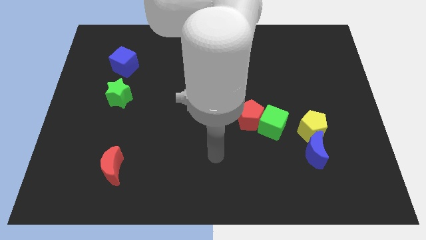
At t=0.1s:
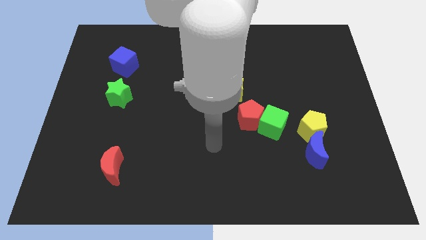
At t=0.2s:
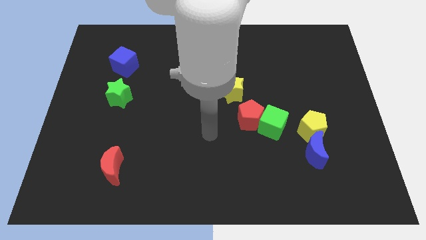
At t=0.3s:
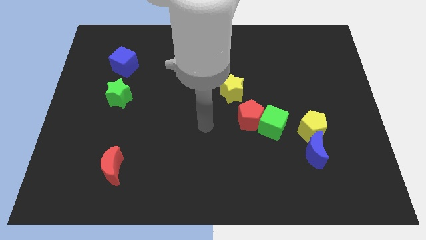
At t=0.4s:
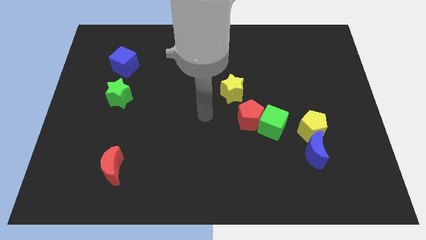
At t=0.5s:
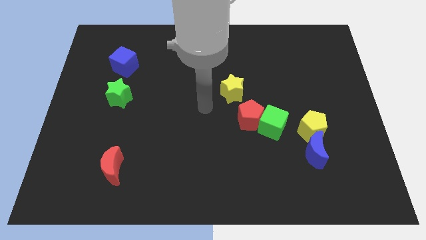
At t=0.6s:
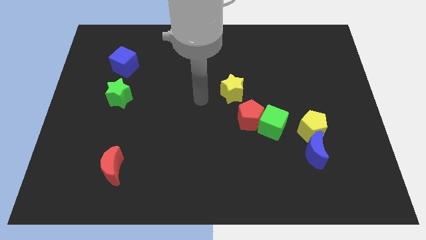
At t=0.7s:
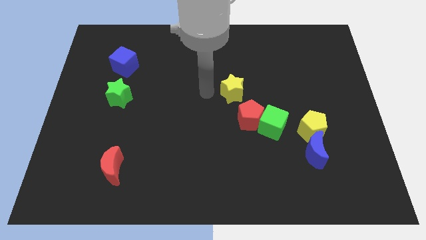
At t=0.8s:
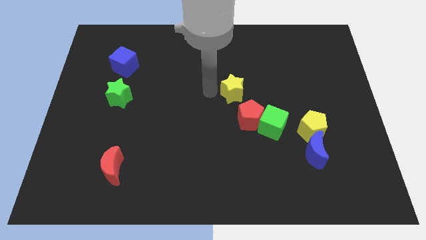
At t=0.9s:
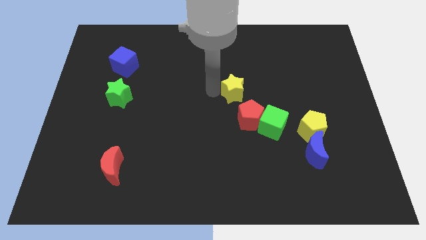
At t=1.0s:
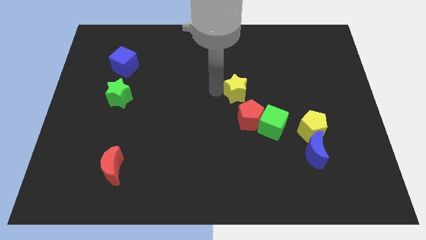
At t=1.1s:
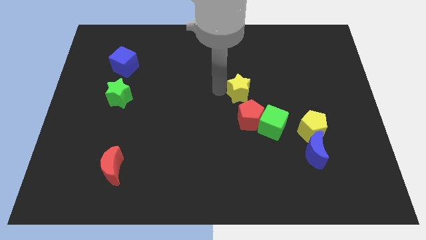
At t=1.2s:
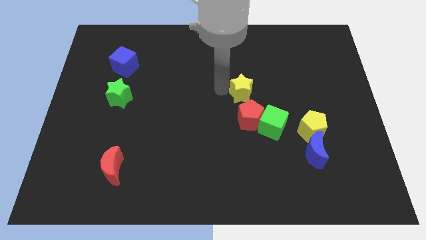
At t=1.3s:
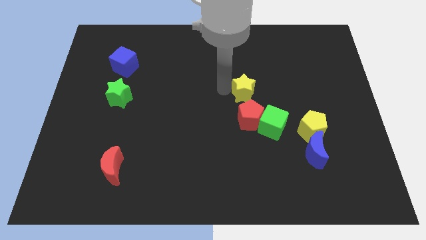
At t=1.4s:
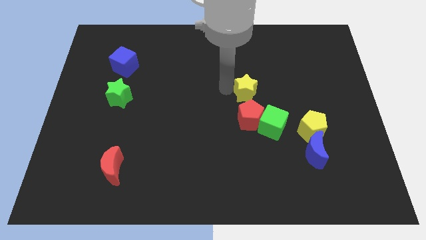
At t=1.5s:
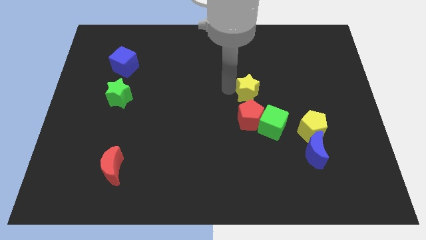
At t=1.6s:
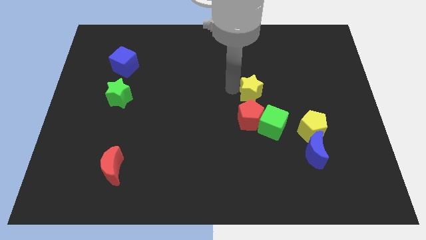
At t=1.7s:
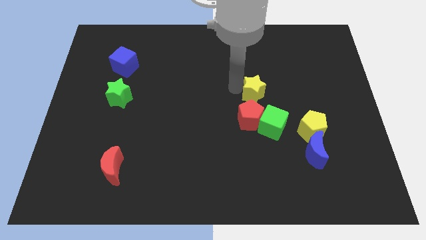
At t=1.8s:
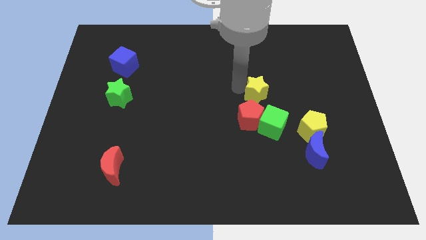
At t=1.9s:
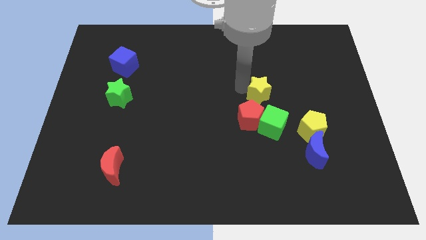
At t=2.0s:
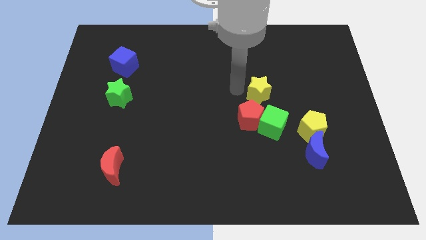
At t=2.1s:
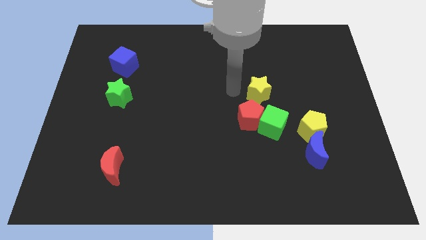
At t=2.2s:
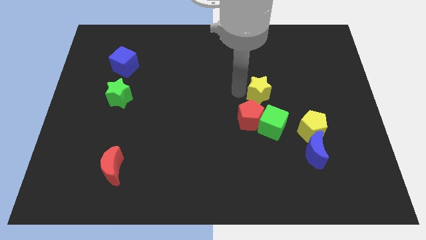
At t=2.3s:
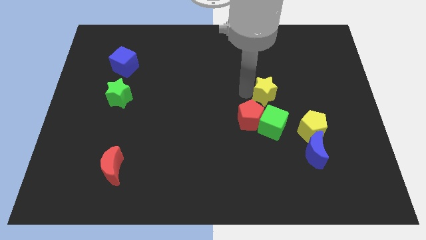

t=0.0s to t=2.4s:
push the yellow star a little to the right

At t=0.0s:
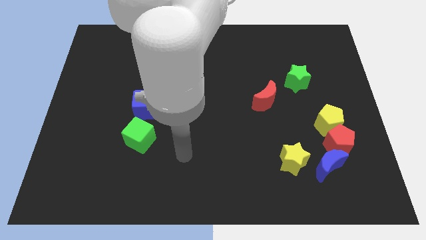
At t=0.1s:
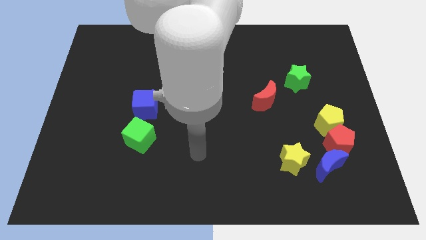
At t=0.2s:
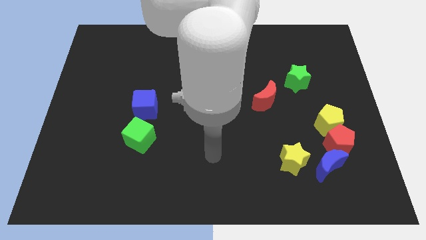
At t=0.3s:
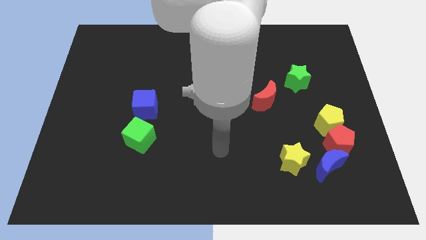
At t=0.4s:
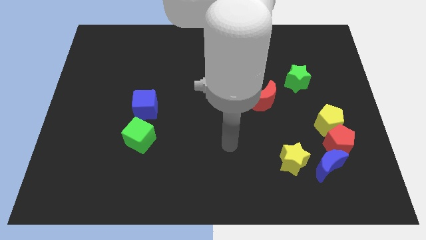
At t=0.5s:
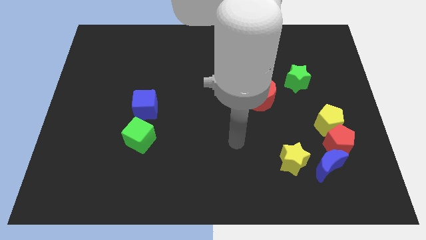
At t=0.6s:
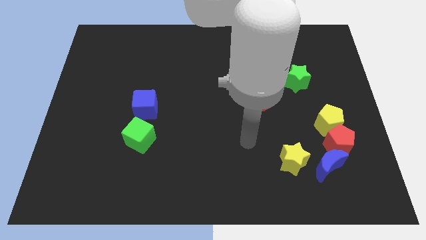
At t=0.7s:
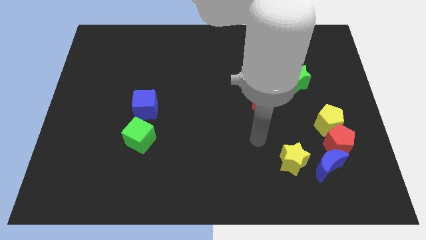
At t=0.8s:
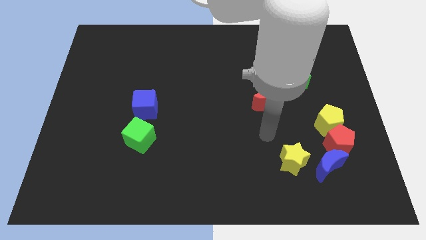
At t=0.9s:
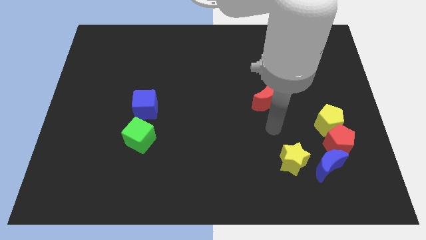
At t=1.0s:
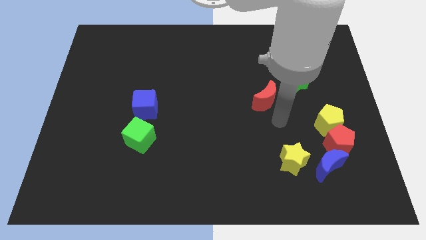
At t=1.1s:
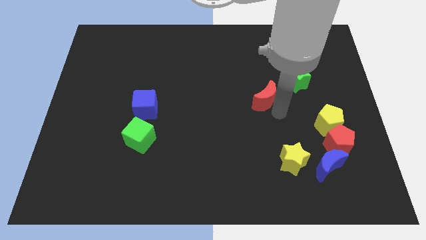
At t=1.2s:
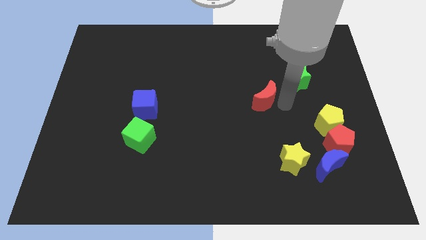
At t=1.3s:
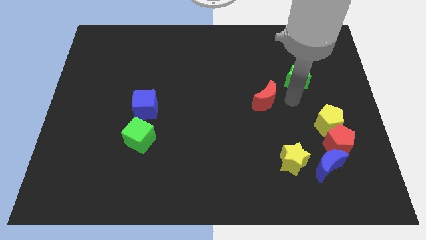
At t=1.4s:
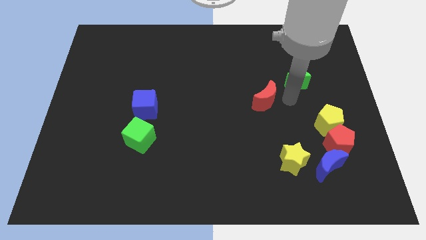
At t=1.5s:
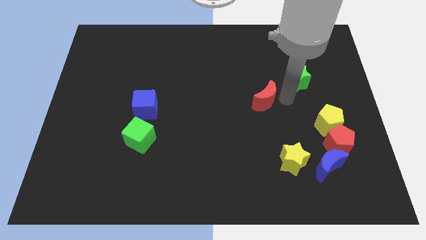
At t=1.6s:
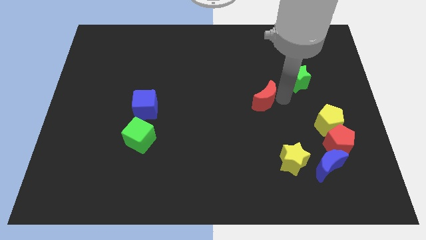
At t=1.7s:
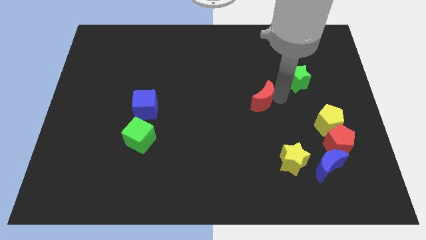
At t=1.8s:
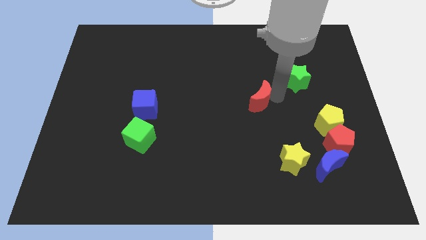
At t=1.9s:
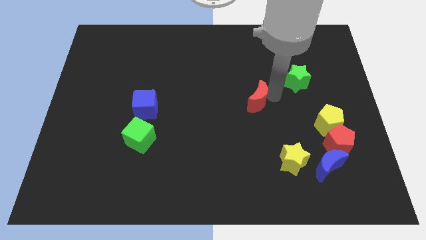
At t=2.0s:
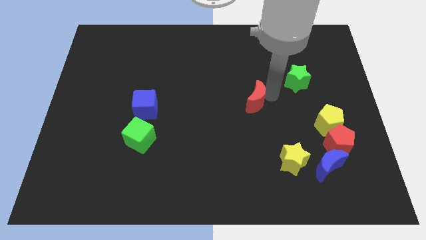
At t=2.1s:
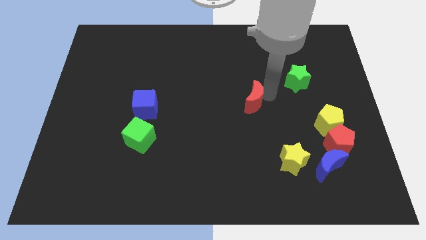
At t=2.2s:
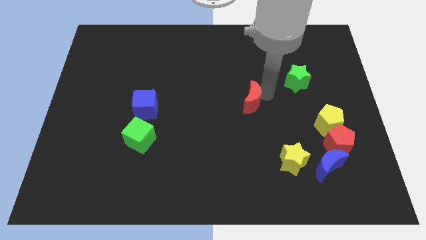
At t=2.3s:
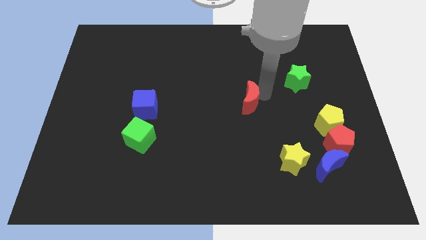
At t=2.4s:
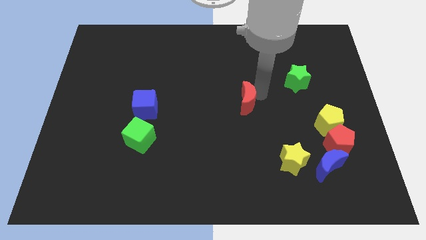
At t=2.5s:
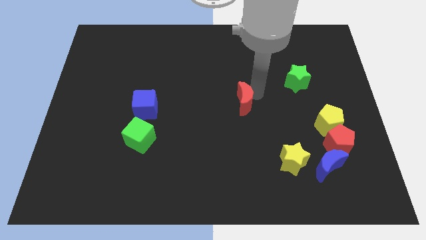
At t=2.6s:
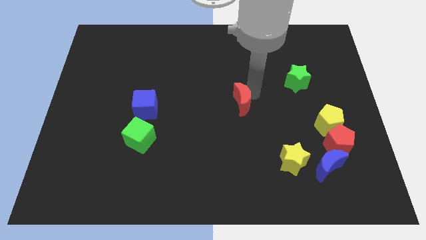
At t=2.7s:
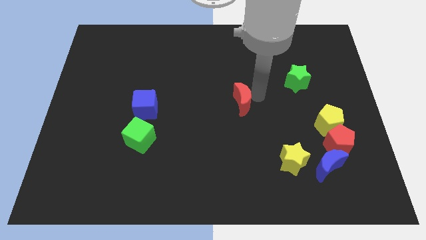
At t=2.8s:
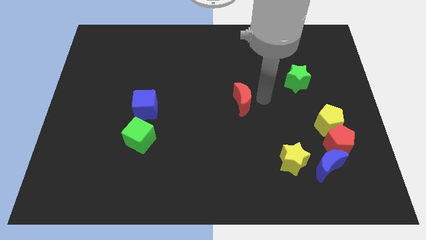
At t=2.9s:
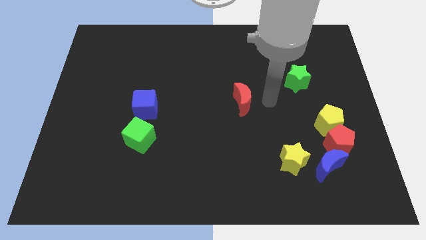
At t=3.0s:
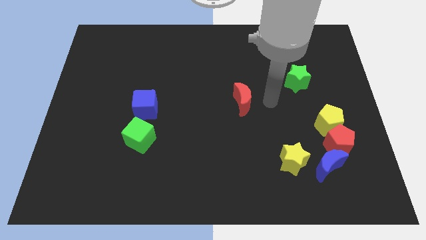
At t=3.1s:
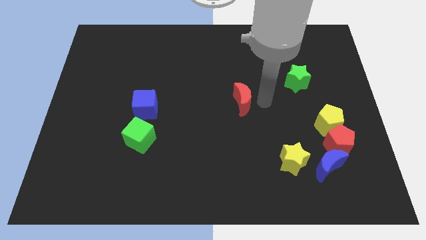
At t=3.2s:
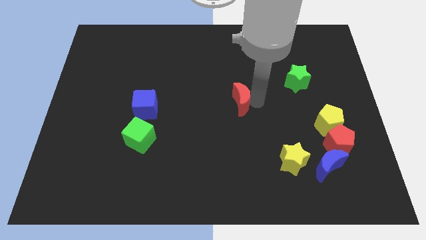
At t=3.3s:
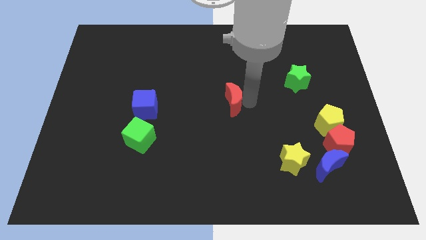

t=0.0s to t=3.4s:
push the red moon somewhat left

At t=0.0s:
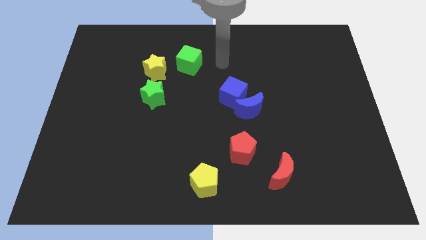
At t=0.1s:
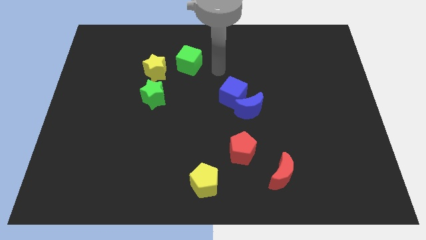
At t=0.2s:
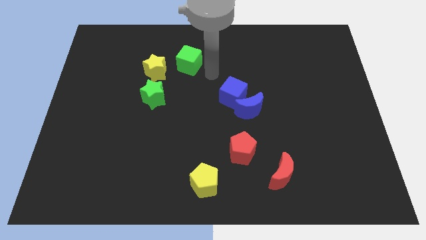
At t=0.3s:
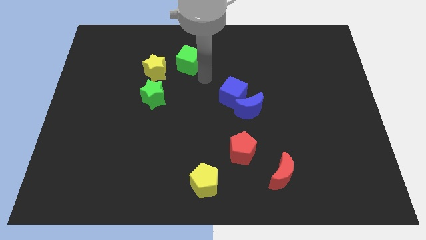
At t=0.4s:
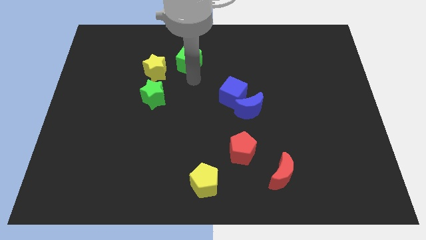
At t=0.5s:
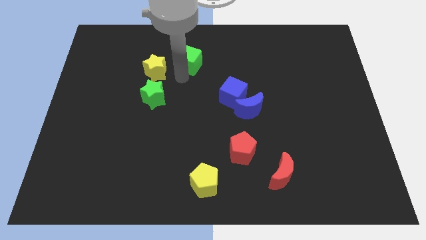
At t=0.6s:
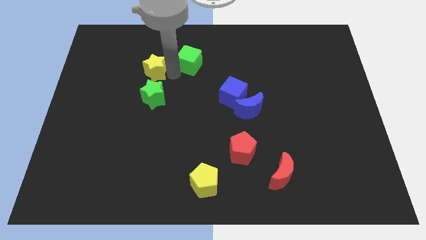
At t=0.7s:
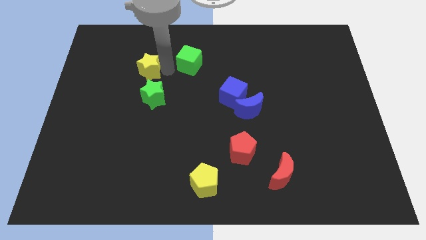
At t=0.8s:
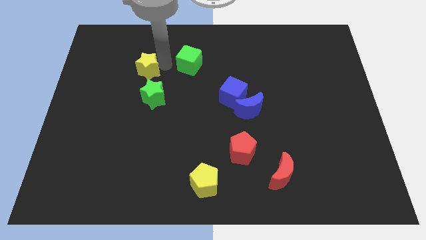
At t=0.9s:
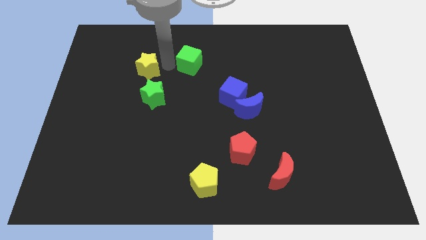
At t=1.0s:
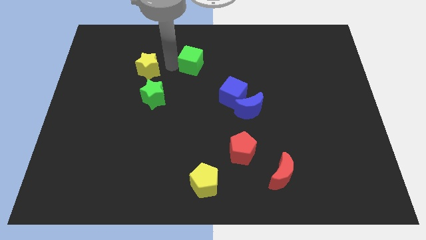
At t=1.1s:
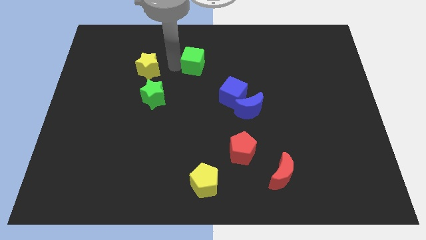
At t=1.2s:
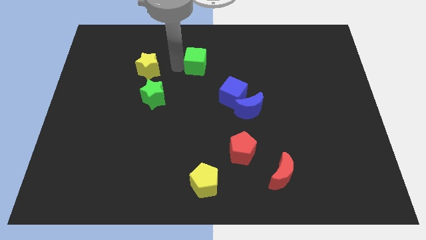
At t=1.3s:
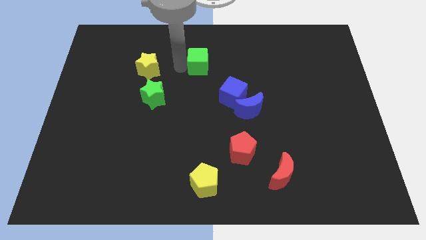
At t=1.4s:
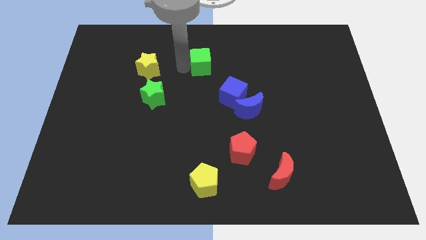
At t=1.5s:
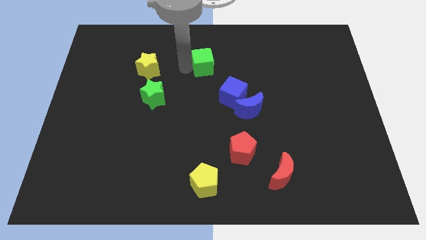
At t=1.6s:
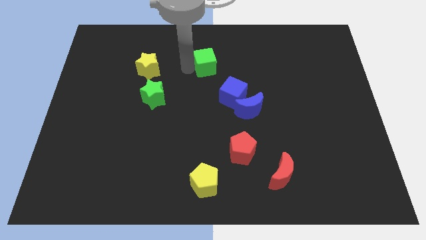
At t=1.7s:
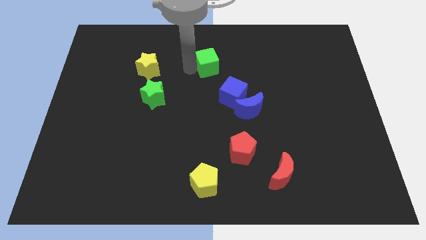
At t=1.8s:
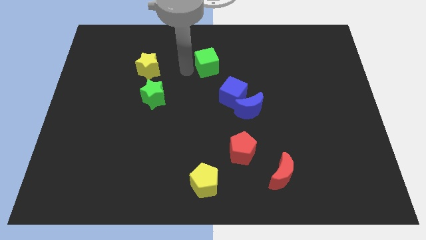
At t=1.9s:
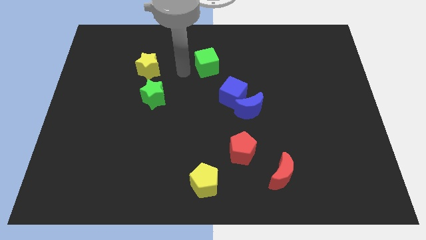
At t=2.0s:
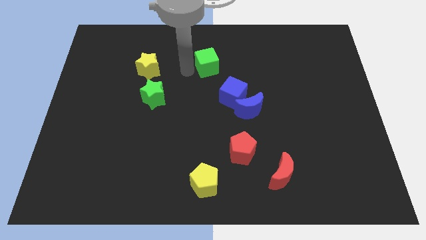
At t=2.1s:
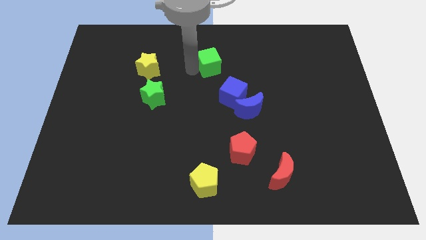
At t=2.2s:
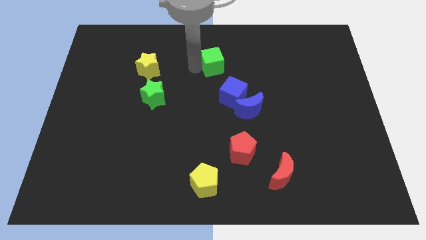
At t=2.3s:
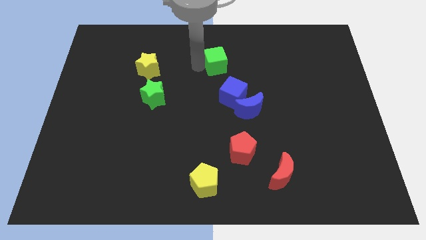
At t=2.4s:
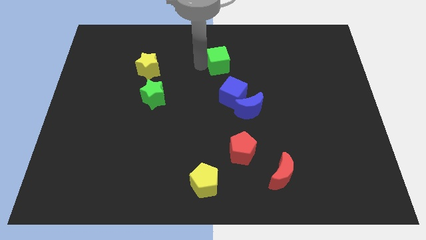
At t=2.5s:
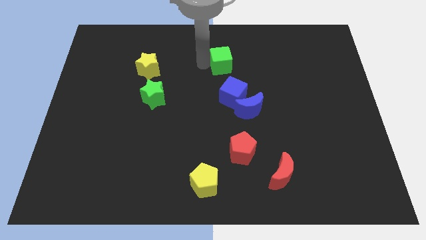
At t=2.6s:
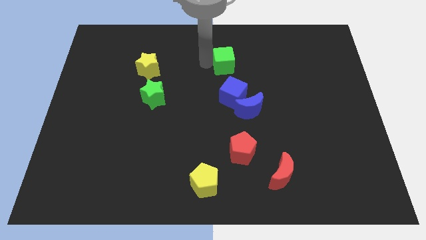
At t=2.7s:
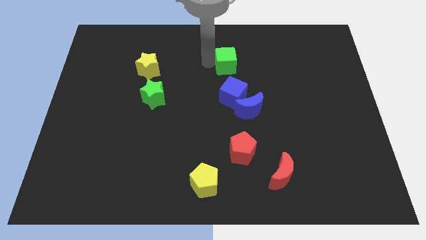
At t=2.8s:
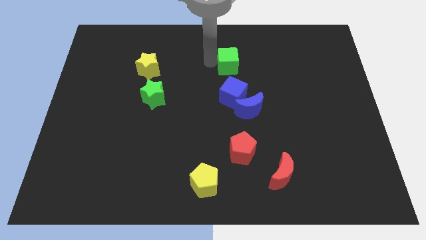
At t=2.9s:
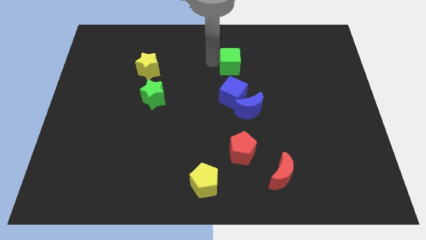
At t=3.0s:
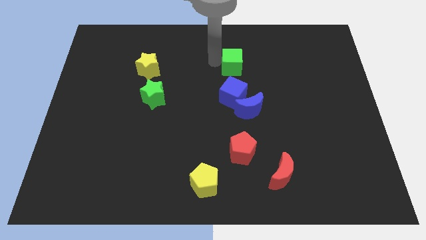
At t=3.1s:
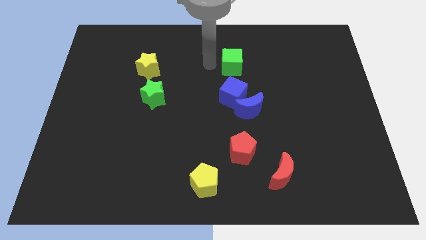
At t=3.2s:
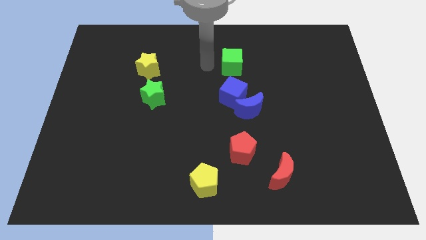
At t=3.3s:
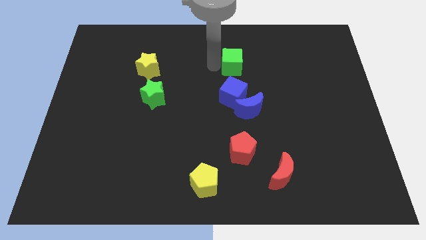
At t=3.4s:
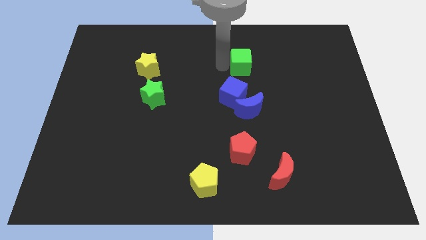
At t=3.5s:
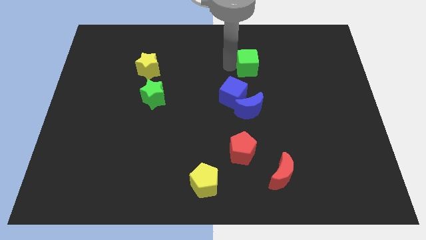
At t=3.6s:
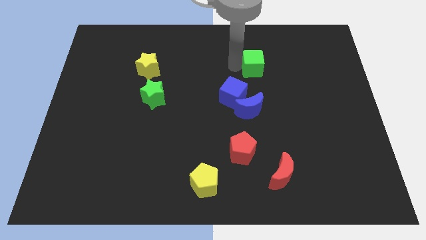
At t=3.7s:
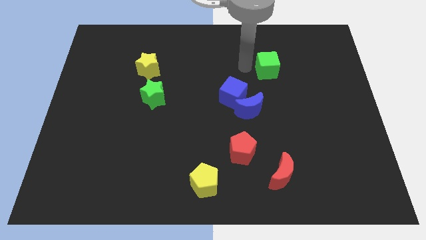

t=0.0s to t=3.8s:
move the green cube right
